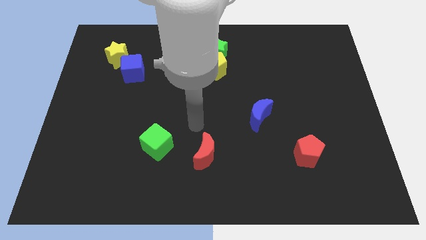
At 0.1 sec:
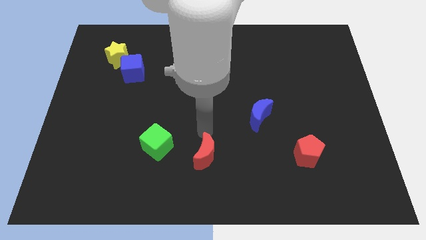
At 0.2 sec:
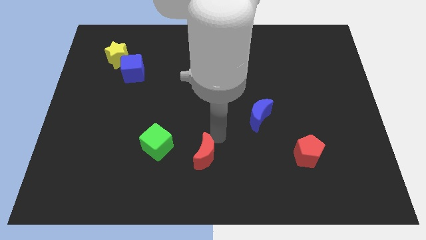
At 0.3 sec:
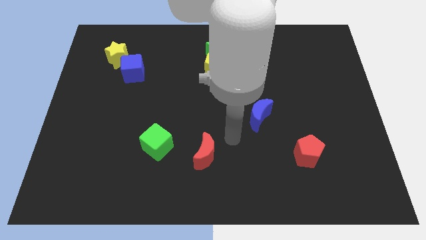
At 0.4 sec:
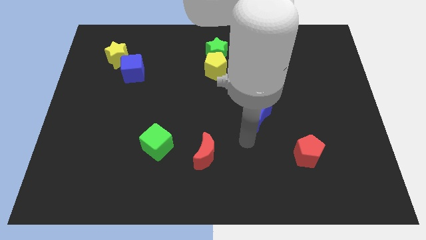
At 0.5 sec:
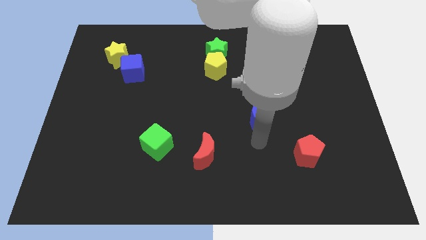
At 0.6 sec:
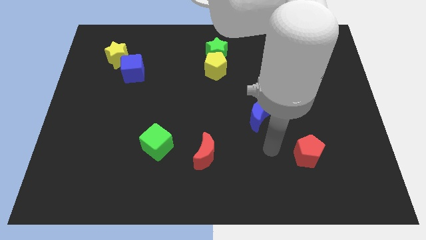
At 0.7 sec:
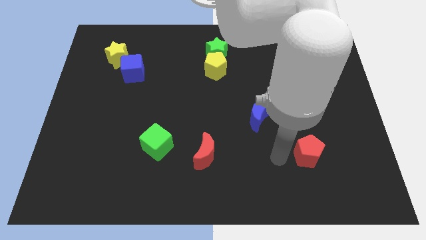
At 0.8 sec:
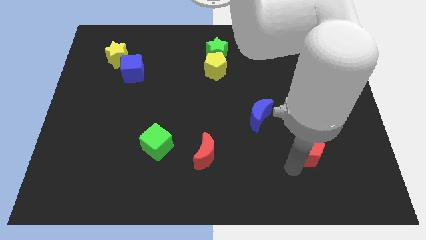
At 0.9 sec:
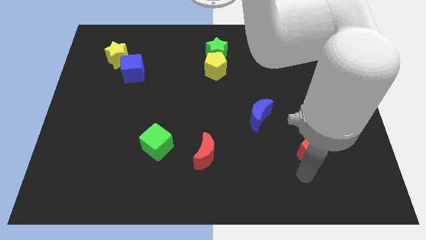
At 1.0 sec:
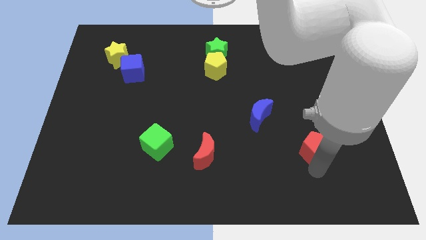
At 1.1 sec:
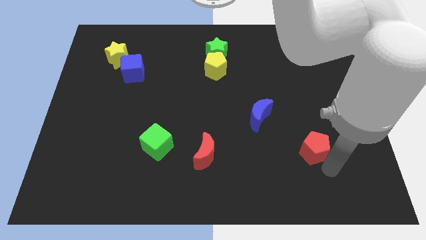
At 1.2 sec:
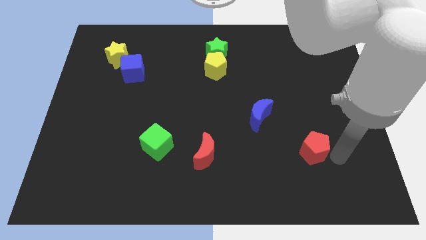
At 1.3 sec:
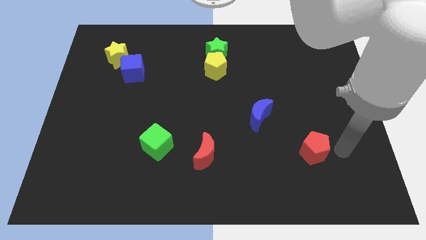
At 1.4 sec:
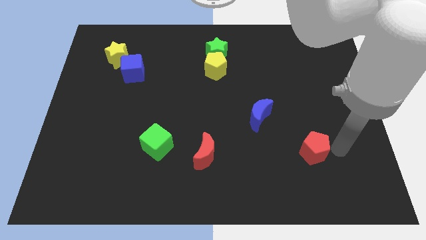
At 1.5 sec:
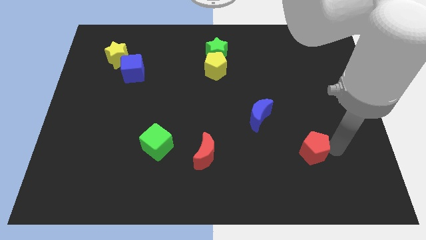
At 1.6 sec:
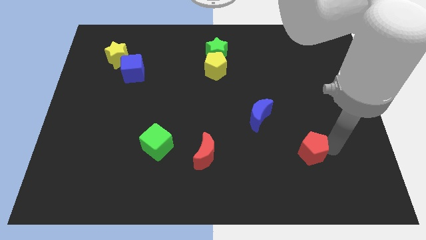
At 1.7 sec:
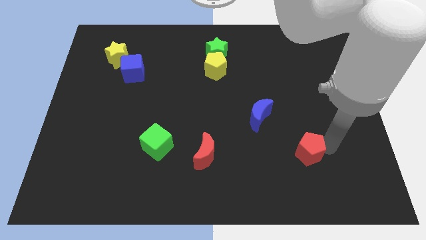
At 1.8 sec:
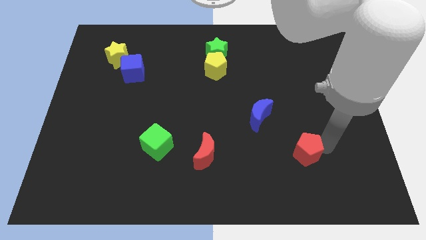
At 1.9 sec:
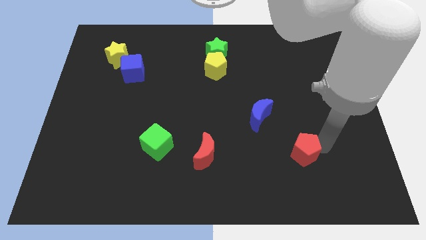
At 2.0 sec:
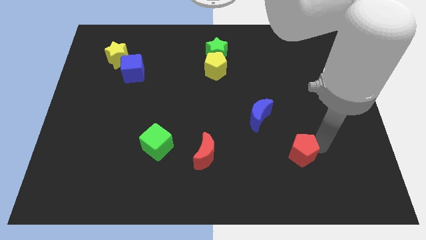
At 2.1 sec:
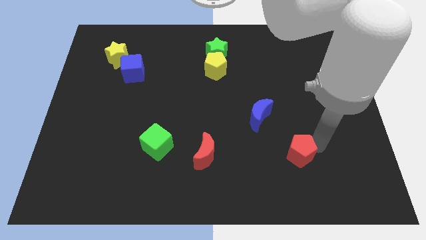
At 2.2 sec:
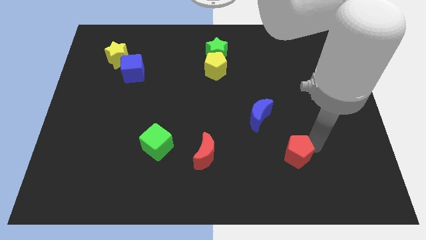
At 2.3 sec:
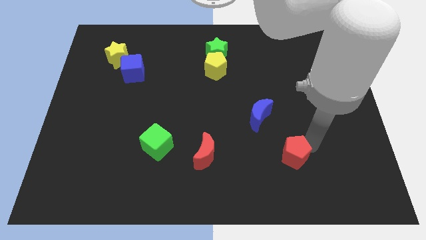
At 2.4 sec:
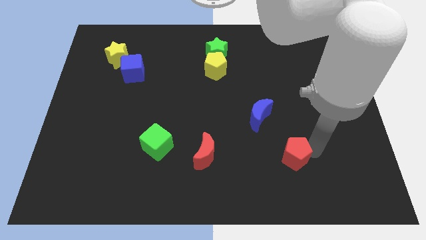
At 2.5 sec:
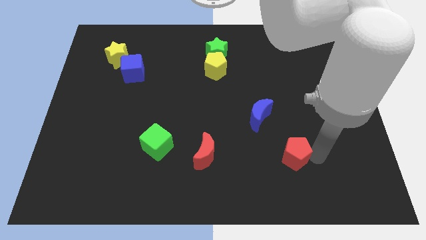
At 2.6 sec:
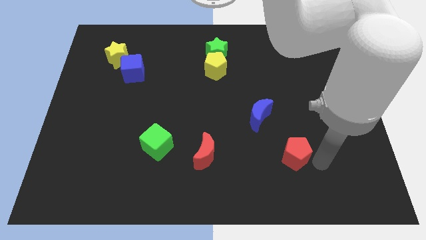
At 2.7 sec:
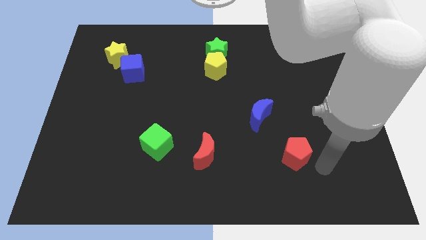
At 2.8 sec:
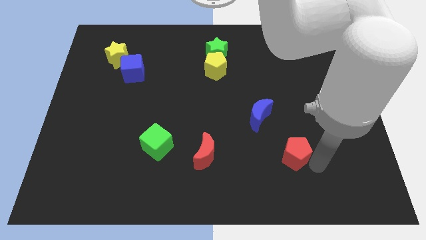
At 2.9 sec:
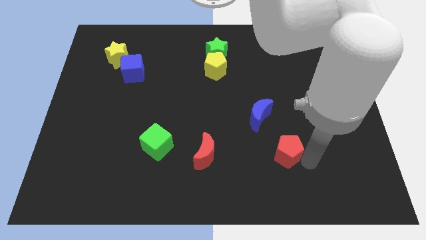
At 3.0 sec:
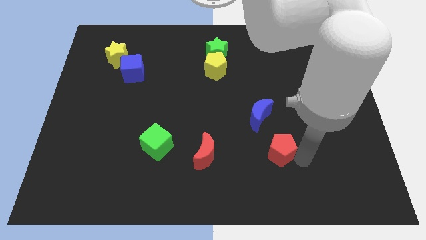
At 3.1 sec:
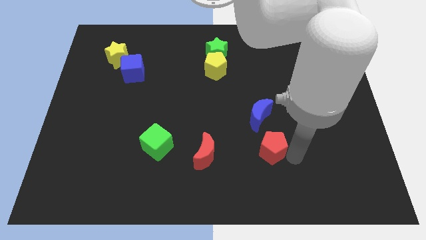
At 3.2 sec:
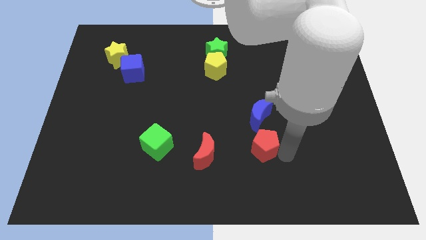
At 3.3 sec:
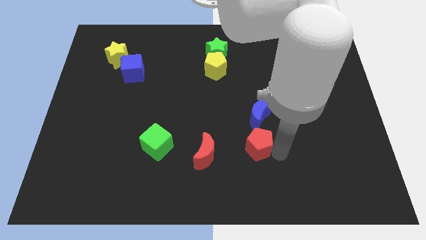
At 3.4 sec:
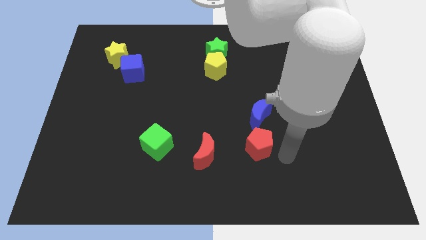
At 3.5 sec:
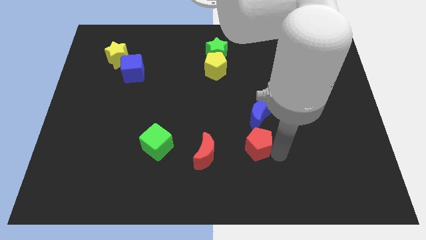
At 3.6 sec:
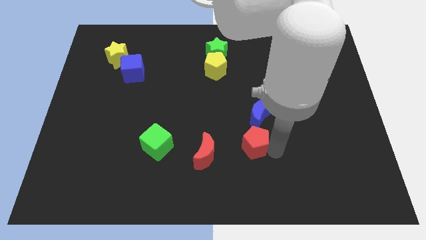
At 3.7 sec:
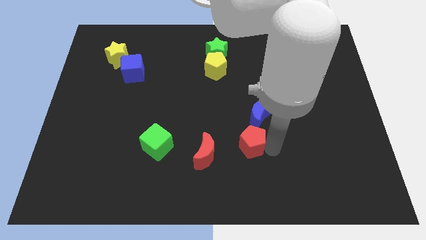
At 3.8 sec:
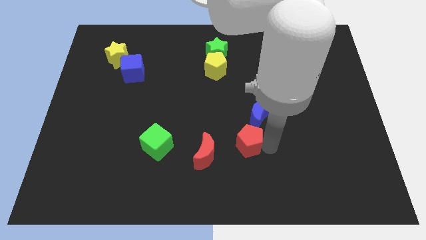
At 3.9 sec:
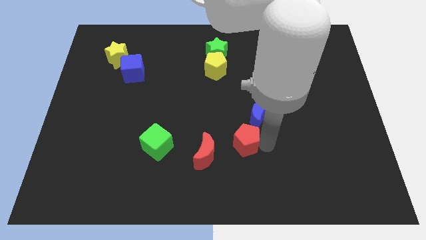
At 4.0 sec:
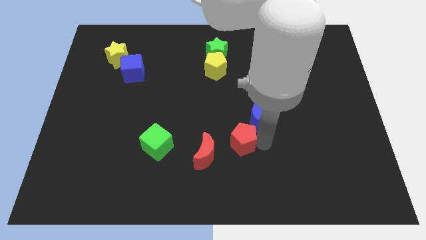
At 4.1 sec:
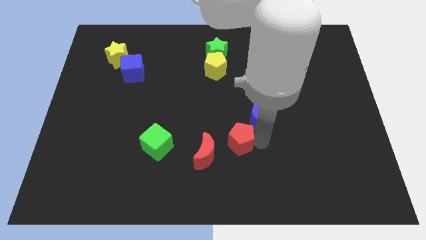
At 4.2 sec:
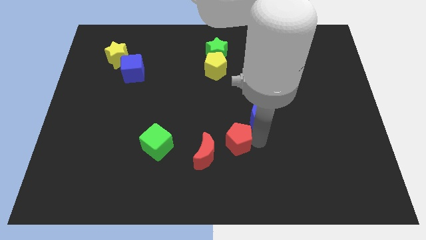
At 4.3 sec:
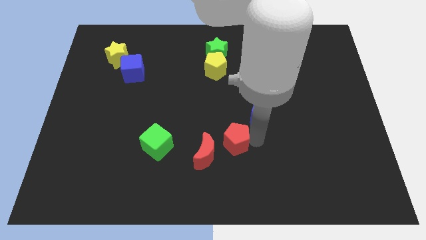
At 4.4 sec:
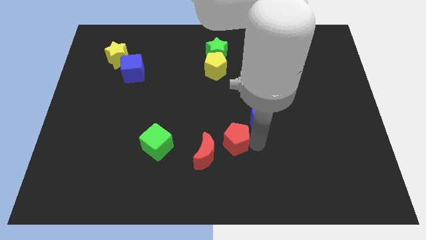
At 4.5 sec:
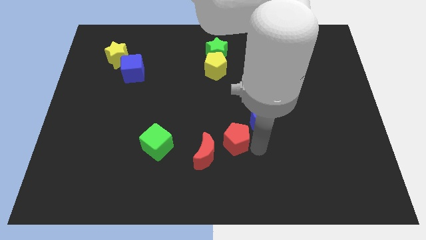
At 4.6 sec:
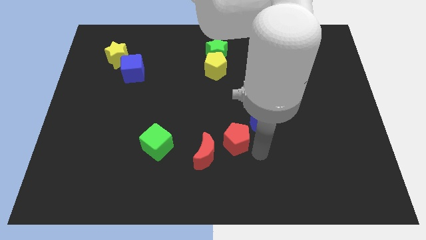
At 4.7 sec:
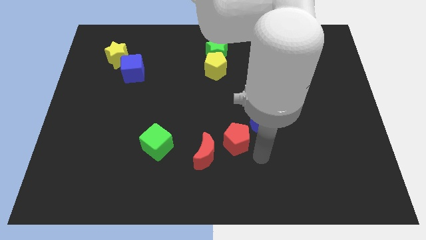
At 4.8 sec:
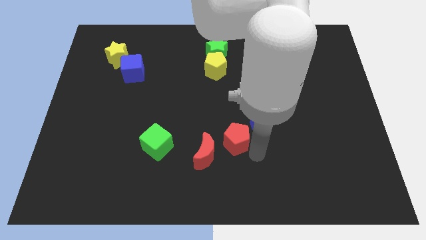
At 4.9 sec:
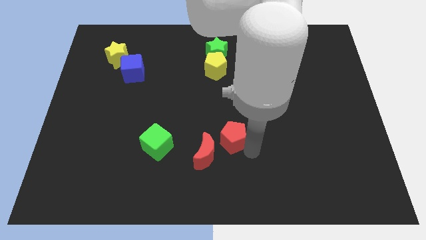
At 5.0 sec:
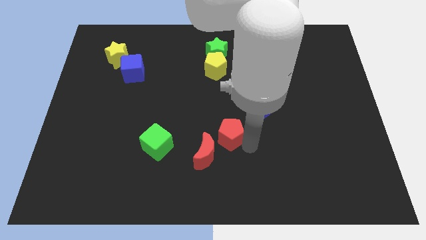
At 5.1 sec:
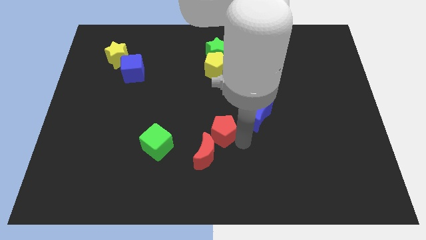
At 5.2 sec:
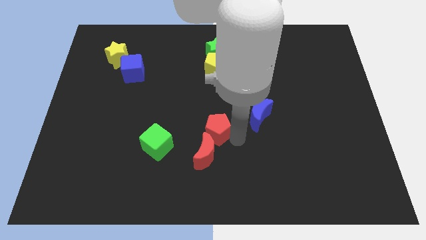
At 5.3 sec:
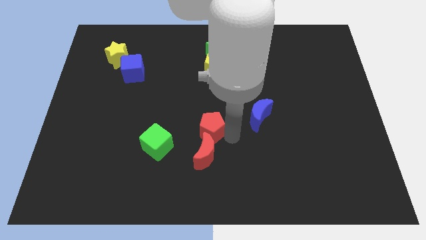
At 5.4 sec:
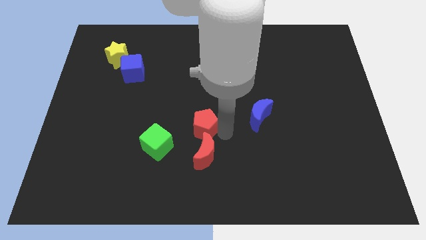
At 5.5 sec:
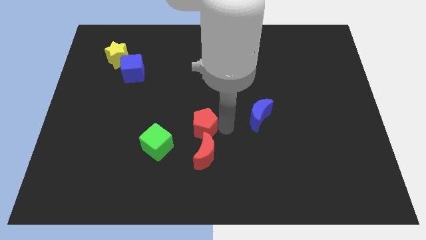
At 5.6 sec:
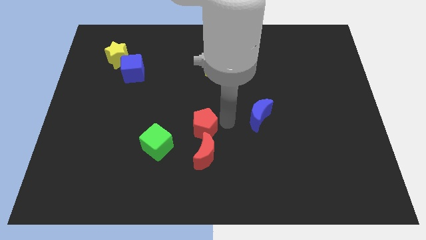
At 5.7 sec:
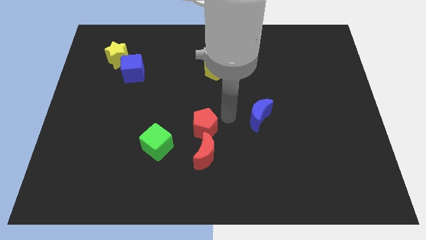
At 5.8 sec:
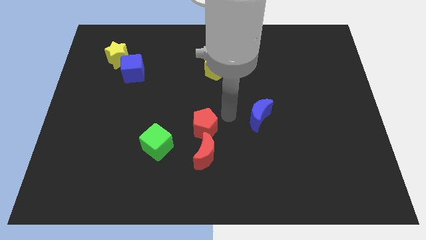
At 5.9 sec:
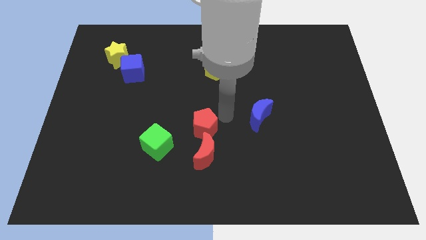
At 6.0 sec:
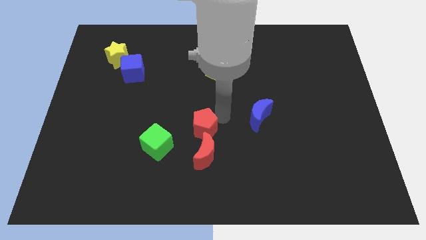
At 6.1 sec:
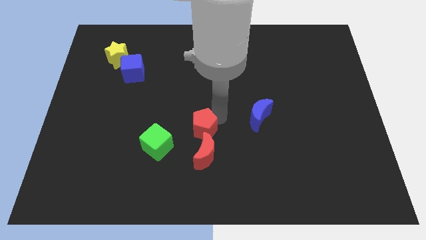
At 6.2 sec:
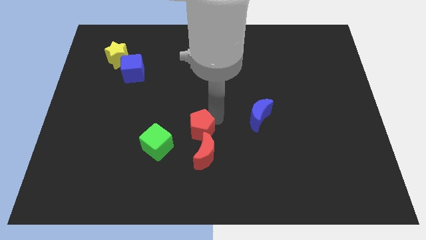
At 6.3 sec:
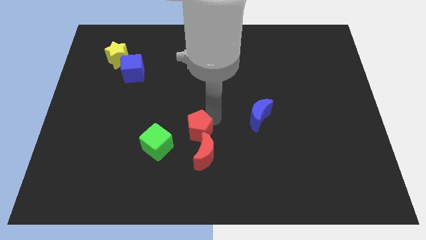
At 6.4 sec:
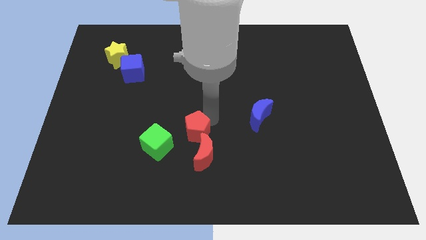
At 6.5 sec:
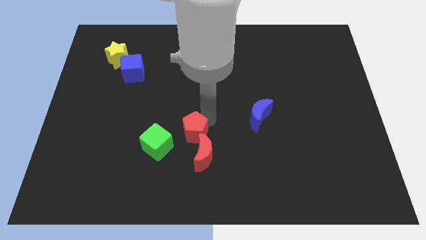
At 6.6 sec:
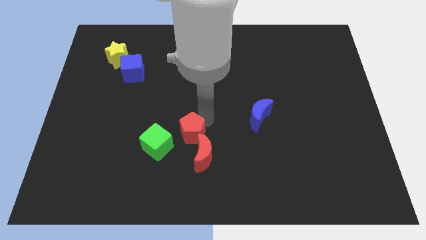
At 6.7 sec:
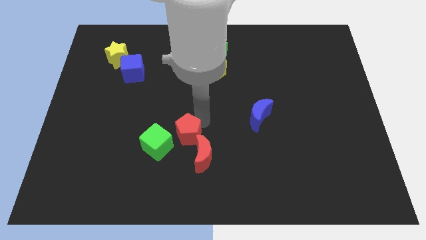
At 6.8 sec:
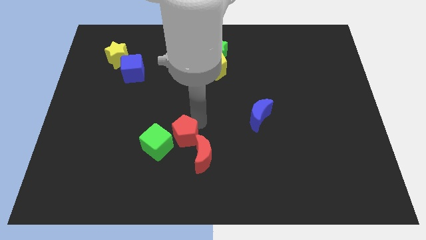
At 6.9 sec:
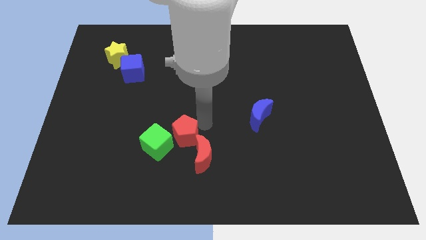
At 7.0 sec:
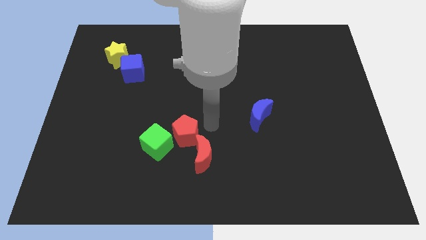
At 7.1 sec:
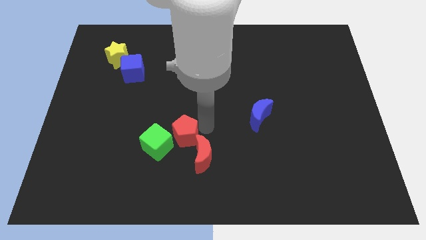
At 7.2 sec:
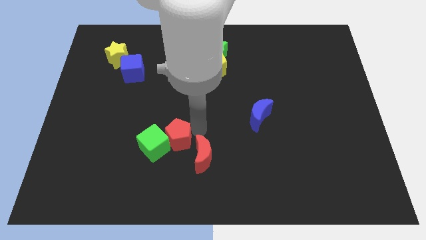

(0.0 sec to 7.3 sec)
push the red pentagon next to the green cube

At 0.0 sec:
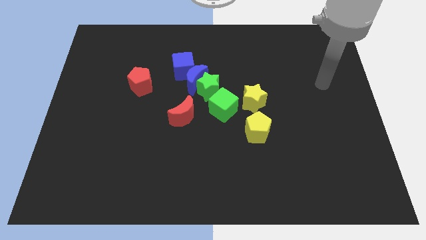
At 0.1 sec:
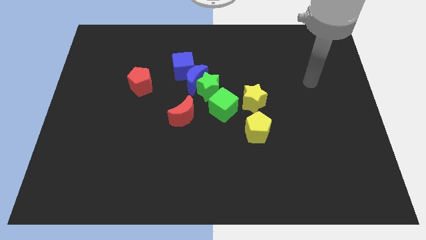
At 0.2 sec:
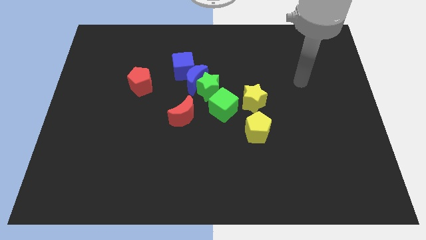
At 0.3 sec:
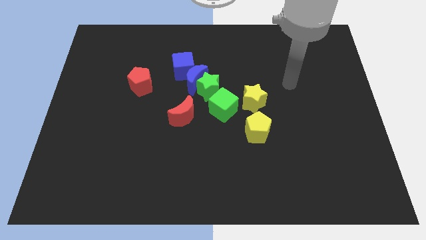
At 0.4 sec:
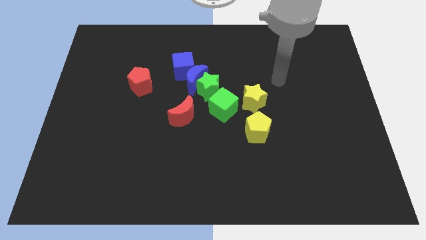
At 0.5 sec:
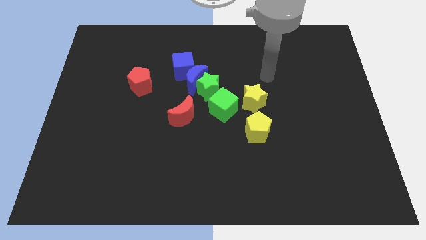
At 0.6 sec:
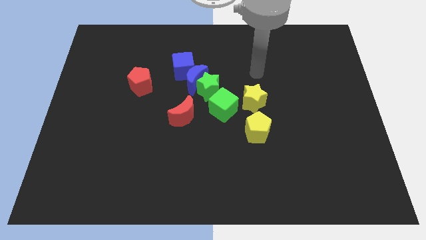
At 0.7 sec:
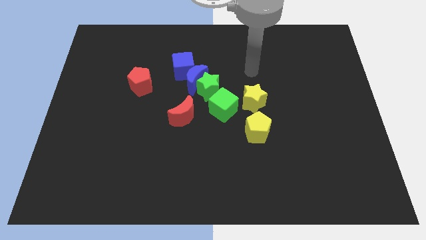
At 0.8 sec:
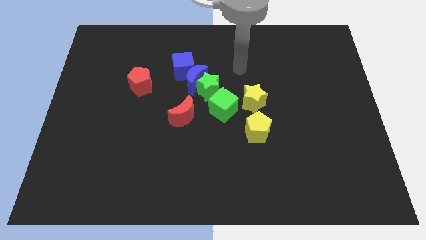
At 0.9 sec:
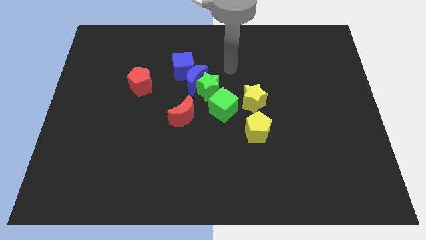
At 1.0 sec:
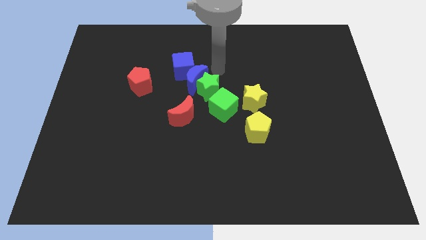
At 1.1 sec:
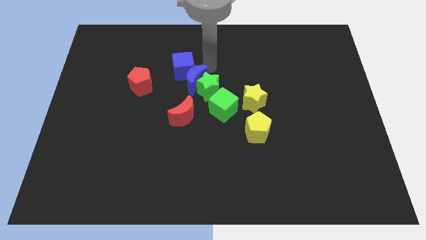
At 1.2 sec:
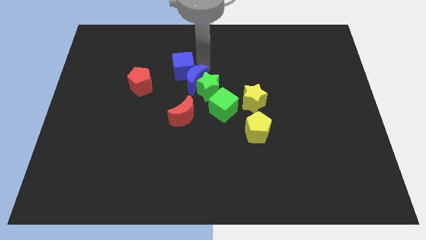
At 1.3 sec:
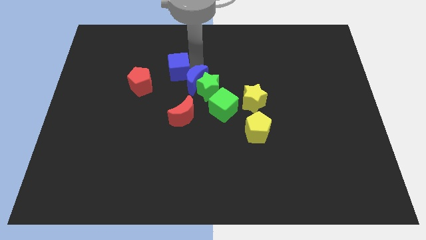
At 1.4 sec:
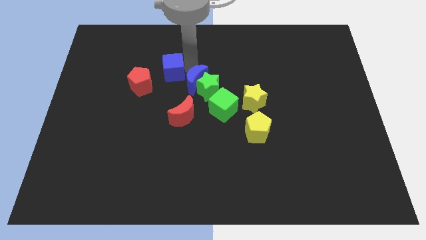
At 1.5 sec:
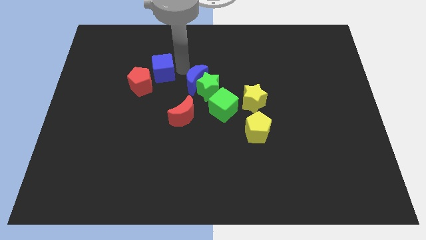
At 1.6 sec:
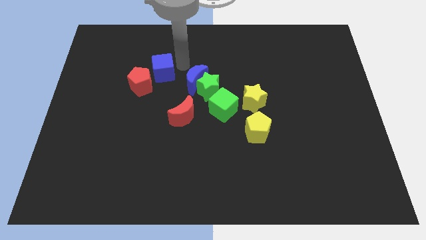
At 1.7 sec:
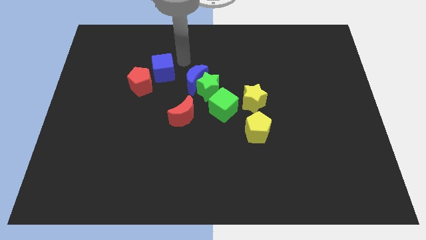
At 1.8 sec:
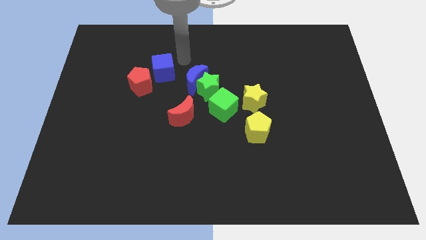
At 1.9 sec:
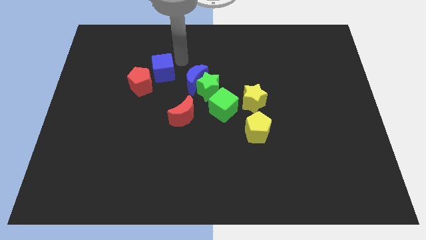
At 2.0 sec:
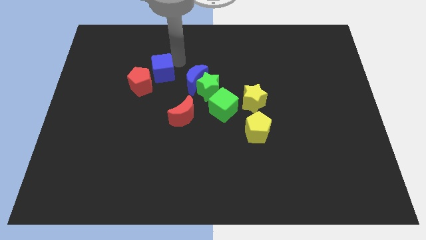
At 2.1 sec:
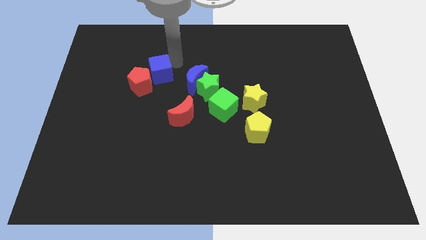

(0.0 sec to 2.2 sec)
put the blue cube next to the red pentagon
